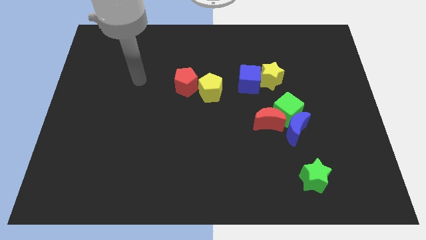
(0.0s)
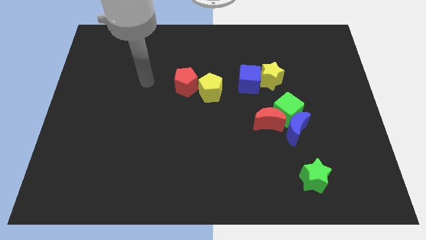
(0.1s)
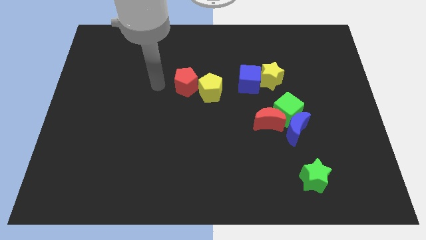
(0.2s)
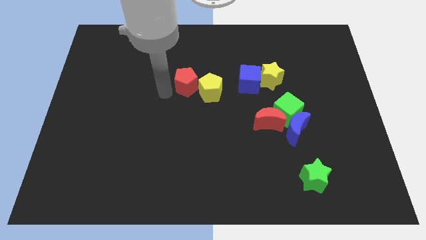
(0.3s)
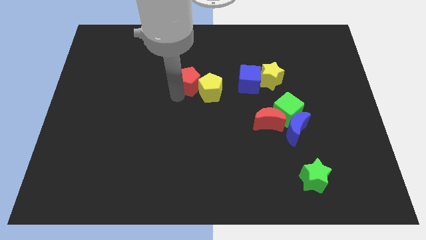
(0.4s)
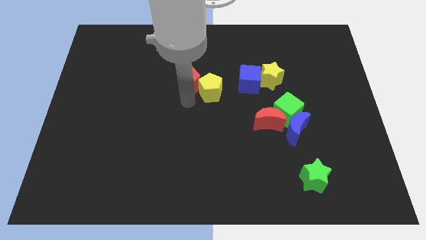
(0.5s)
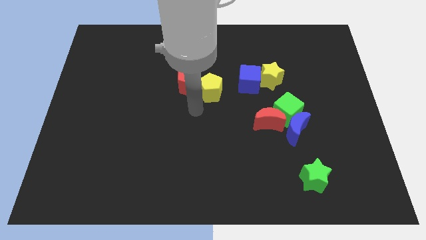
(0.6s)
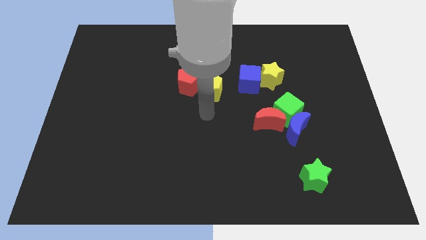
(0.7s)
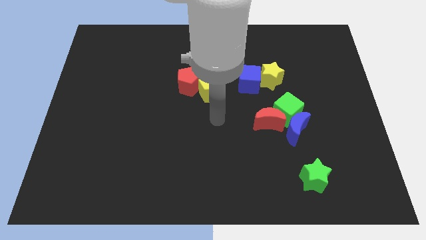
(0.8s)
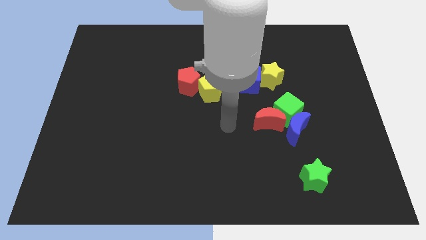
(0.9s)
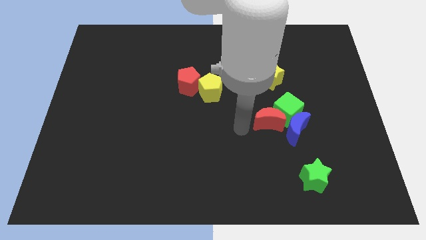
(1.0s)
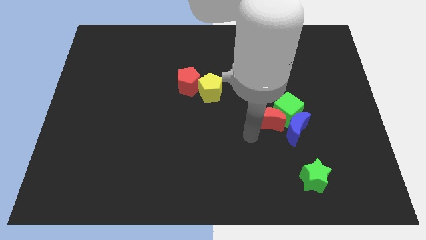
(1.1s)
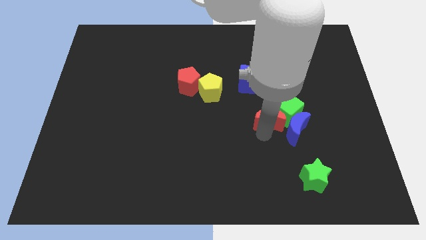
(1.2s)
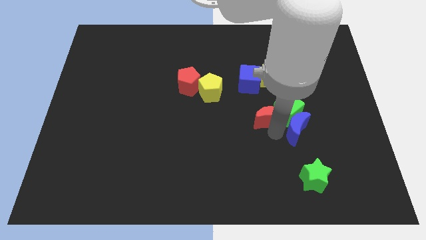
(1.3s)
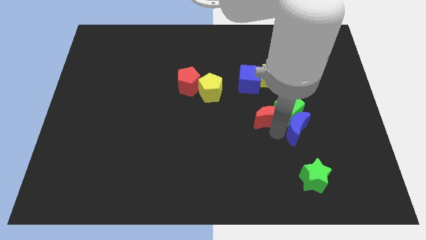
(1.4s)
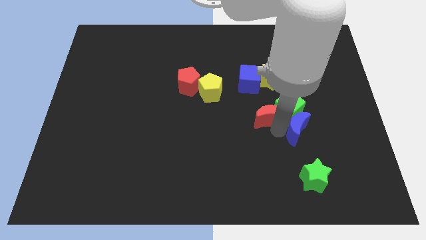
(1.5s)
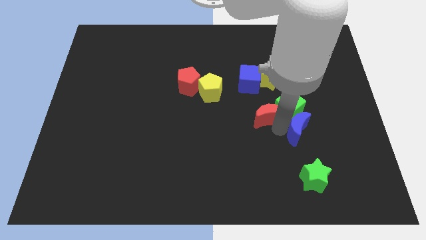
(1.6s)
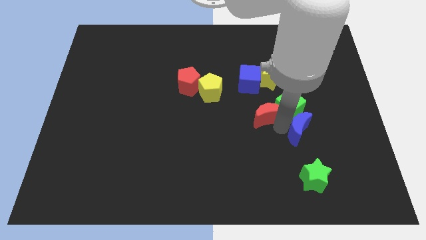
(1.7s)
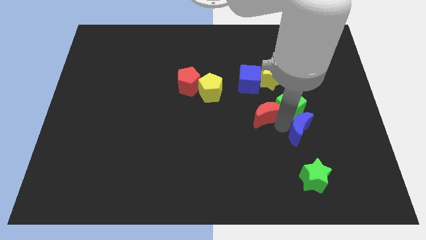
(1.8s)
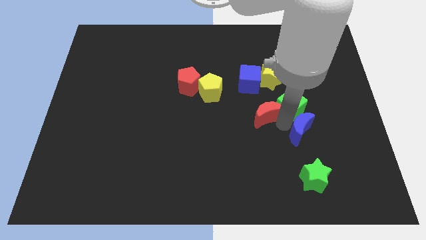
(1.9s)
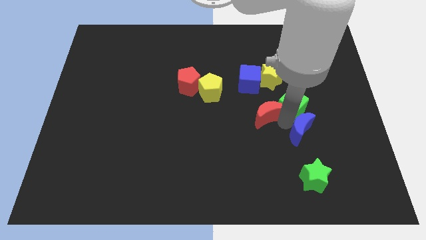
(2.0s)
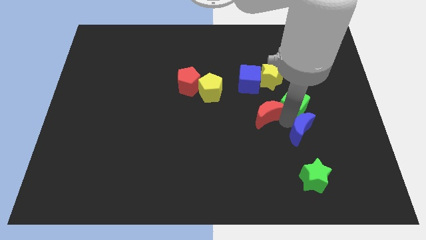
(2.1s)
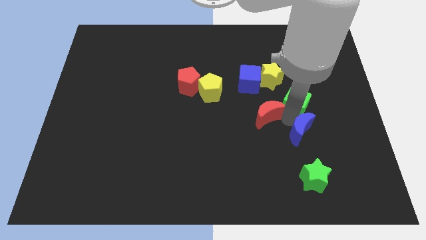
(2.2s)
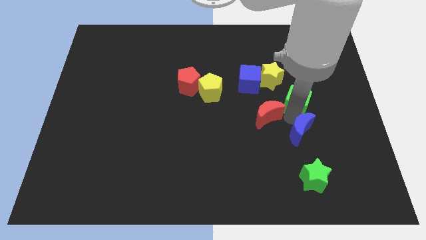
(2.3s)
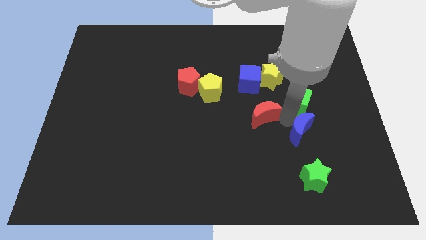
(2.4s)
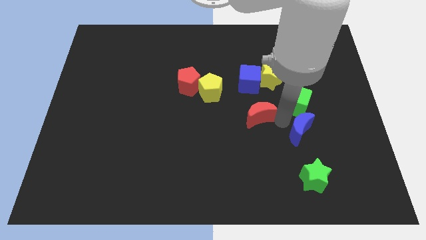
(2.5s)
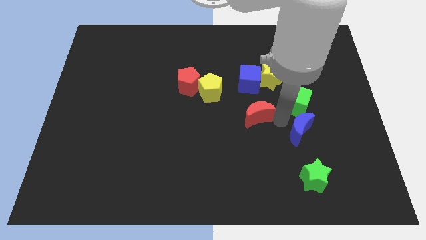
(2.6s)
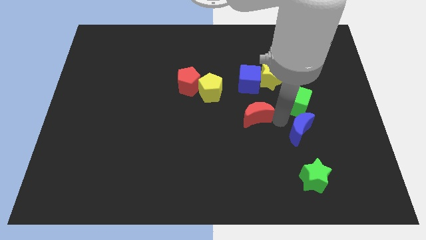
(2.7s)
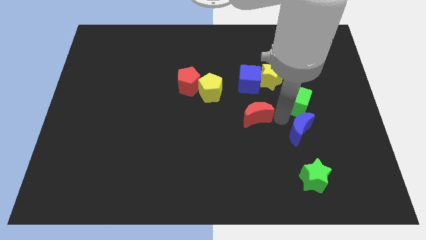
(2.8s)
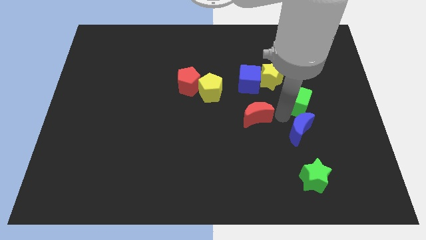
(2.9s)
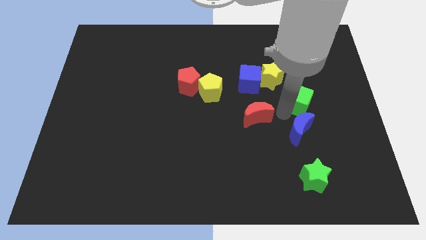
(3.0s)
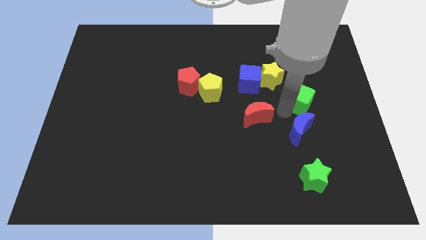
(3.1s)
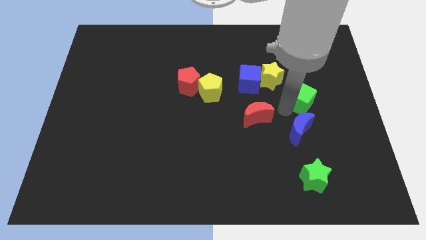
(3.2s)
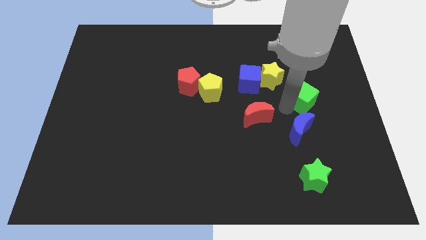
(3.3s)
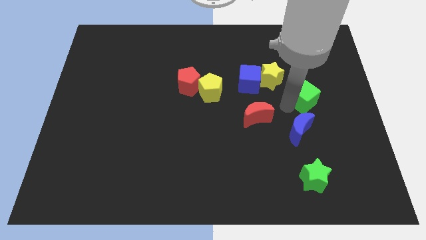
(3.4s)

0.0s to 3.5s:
move the green cube away from the blue moon and red moon

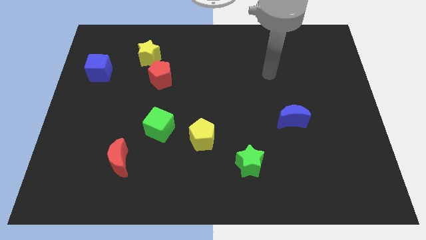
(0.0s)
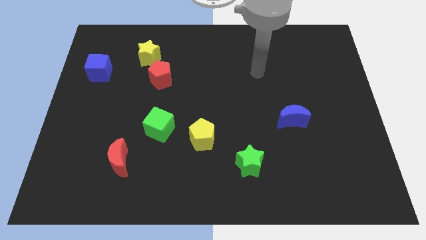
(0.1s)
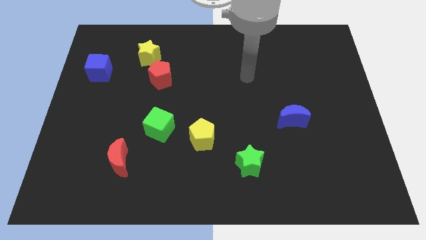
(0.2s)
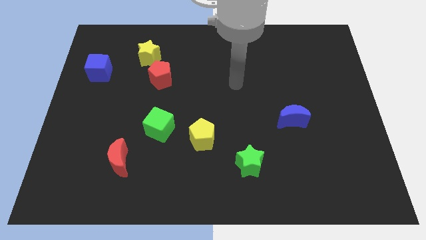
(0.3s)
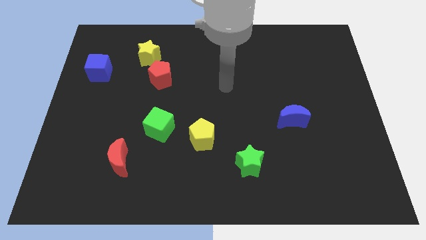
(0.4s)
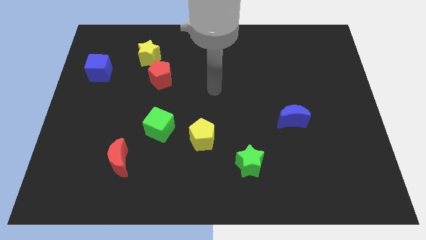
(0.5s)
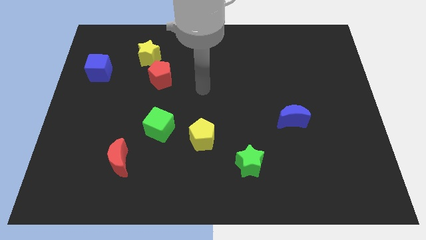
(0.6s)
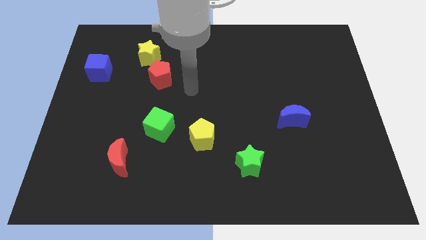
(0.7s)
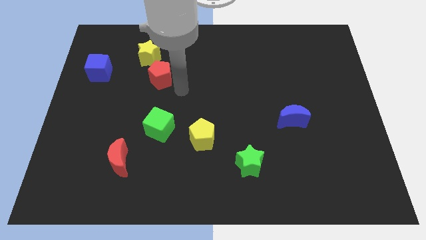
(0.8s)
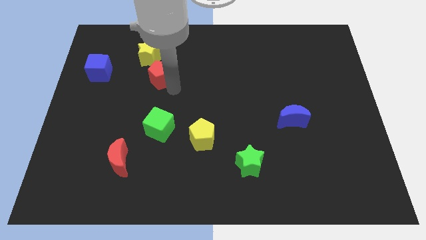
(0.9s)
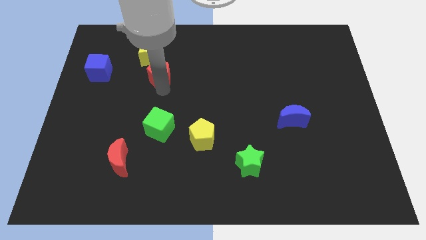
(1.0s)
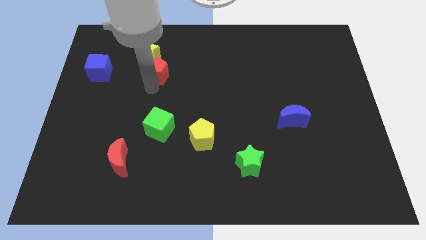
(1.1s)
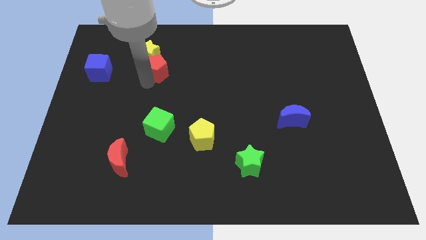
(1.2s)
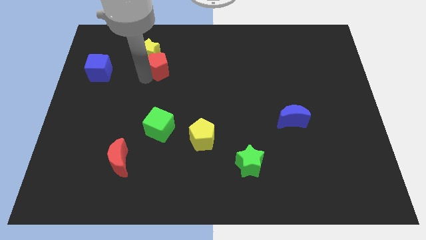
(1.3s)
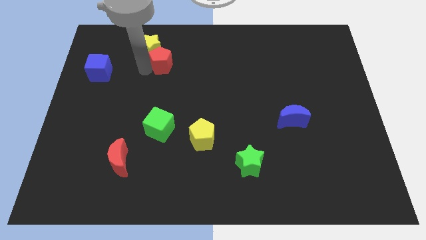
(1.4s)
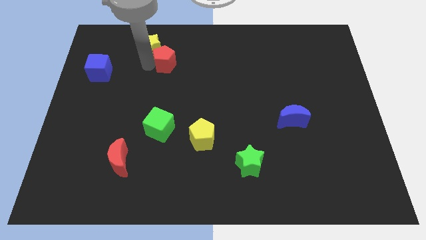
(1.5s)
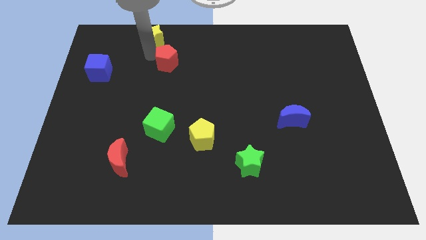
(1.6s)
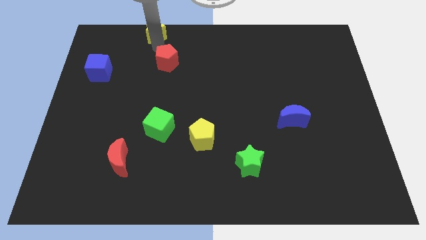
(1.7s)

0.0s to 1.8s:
move the red pentagon away from the yellow star

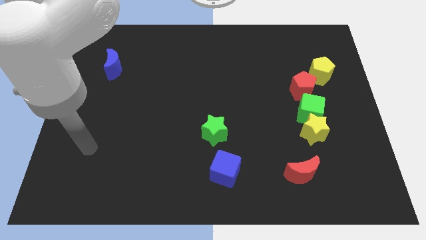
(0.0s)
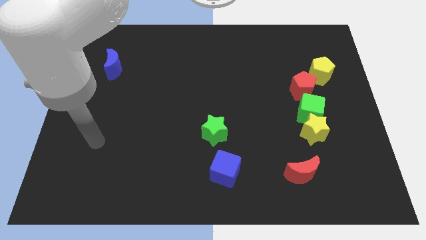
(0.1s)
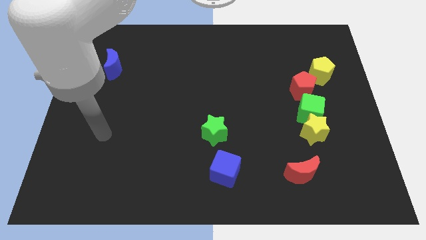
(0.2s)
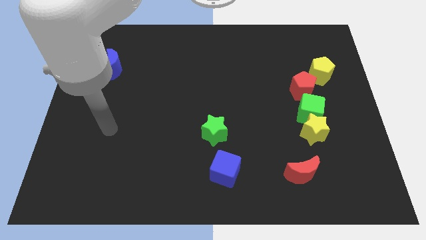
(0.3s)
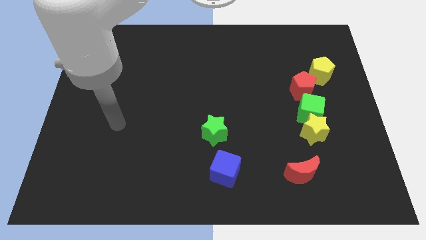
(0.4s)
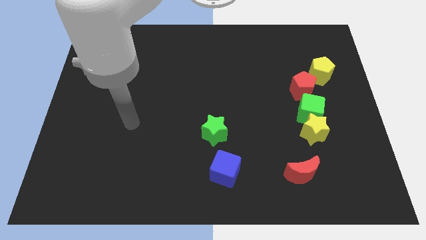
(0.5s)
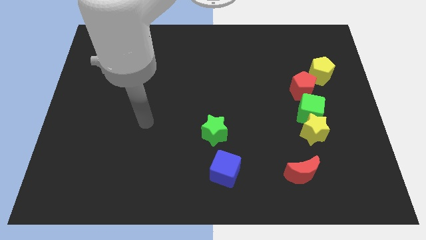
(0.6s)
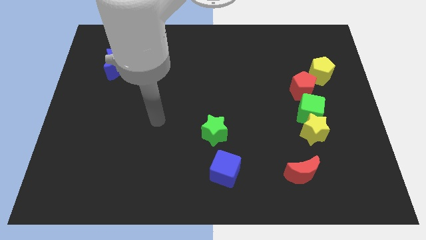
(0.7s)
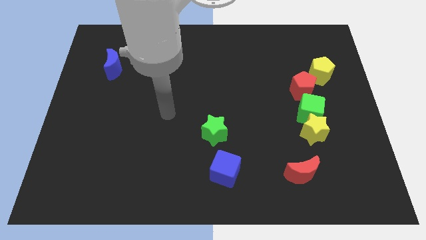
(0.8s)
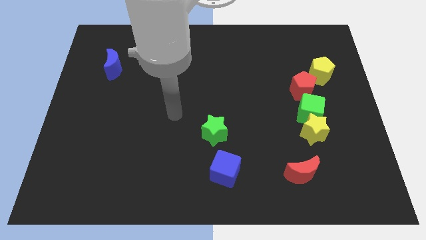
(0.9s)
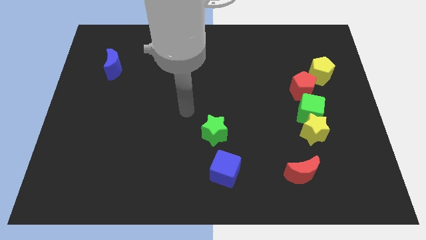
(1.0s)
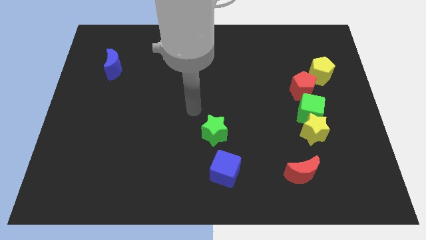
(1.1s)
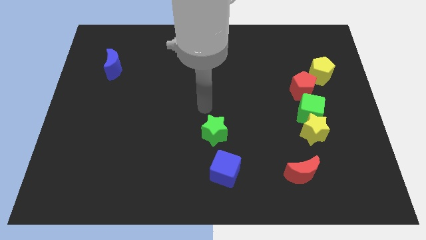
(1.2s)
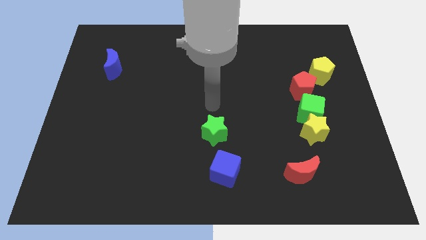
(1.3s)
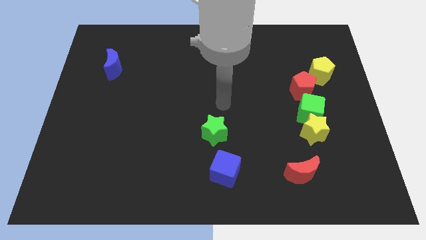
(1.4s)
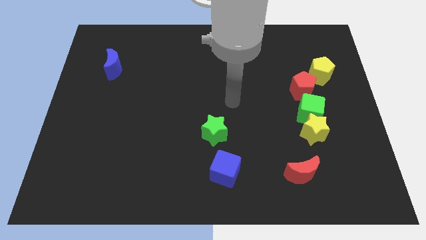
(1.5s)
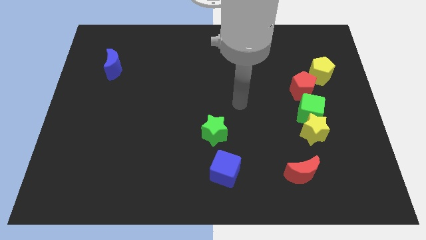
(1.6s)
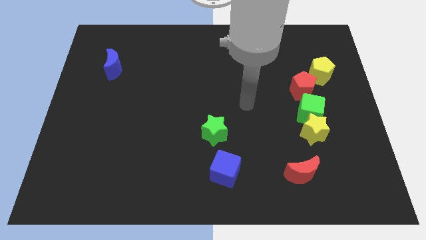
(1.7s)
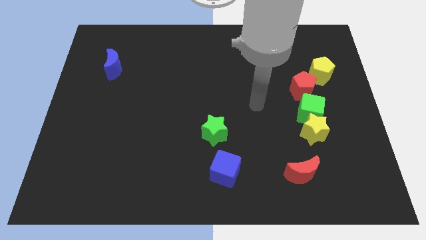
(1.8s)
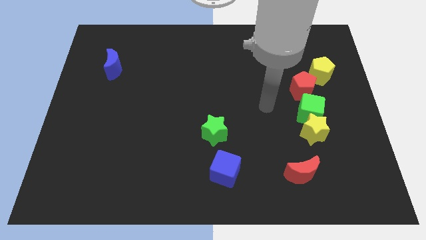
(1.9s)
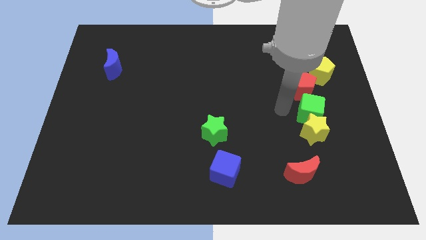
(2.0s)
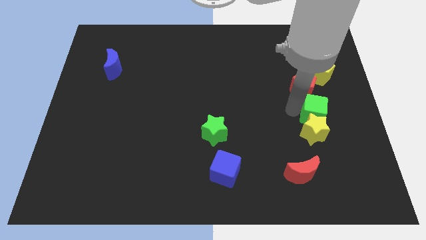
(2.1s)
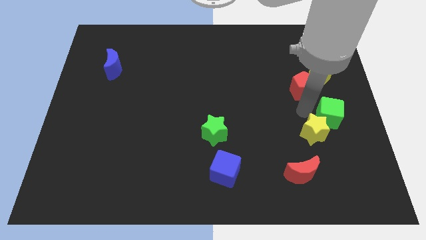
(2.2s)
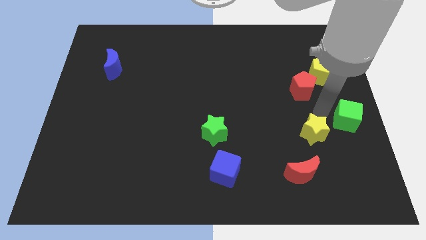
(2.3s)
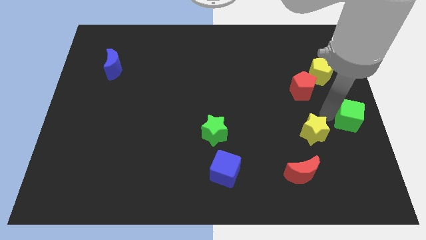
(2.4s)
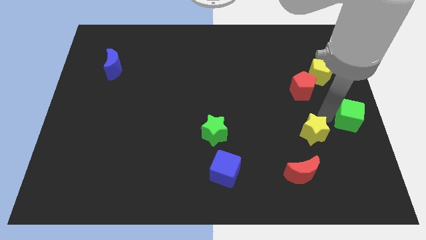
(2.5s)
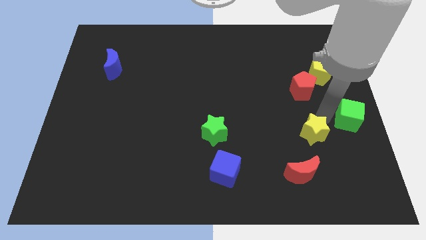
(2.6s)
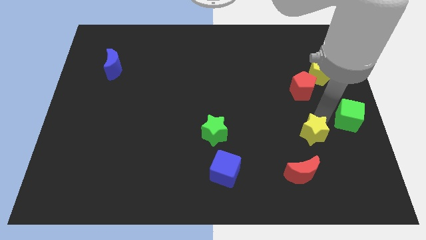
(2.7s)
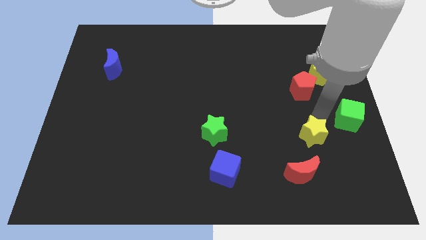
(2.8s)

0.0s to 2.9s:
move the yellow star away from the green cube

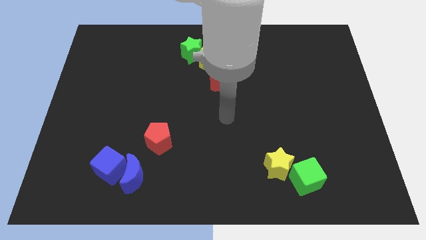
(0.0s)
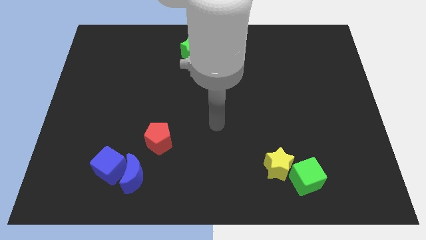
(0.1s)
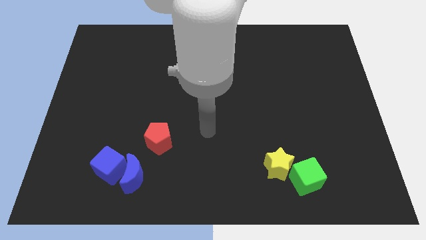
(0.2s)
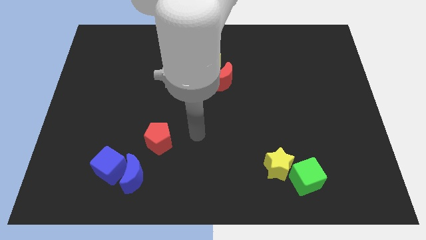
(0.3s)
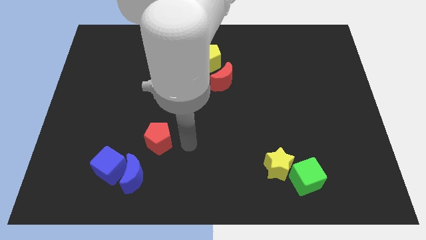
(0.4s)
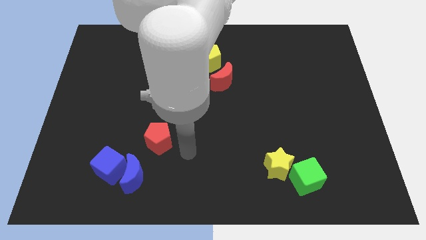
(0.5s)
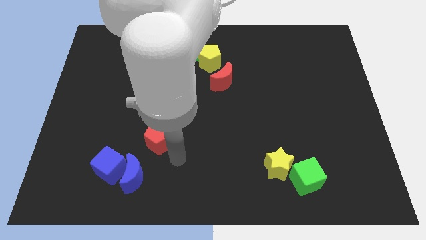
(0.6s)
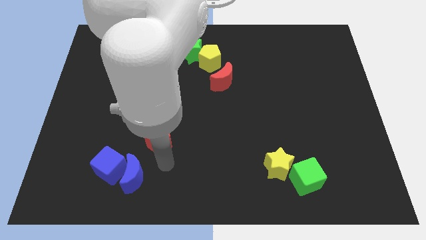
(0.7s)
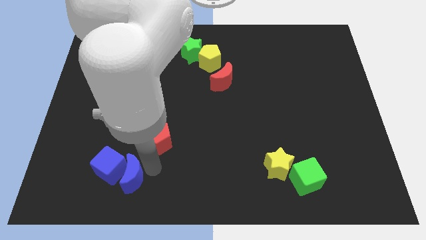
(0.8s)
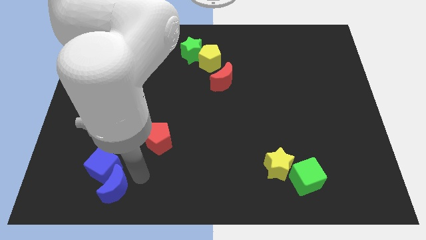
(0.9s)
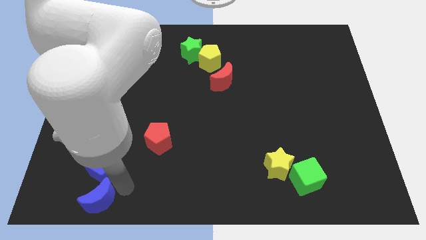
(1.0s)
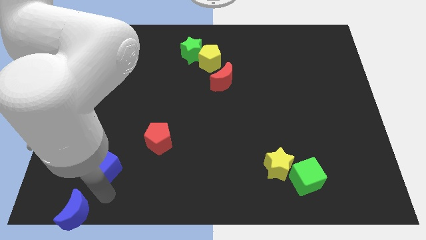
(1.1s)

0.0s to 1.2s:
move the blue cube away from the blue moon
